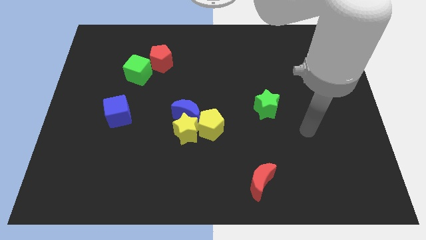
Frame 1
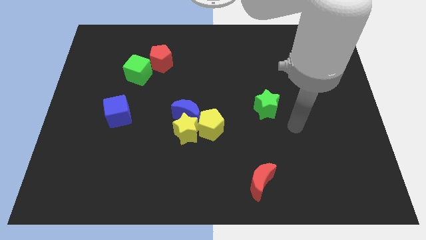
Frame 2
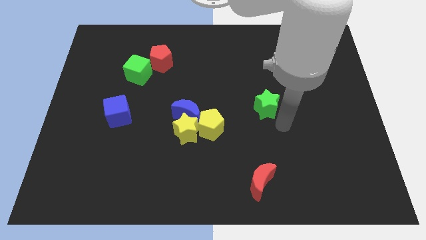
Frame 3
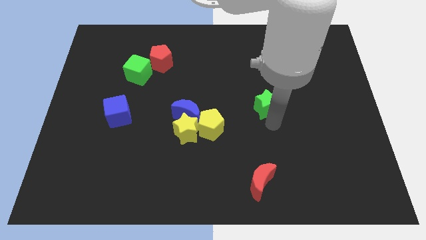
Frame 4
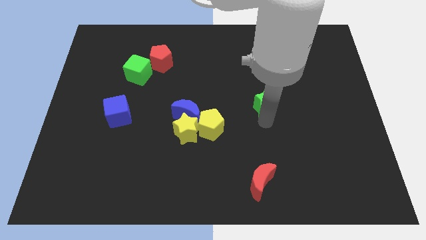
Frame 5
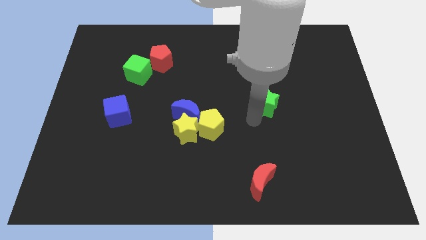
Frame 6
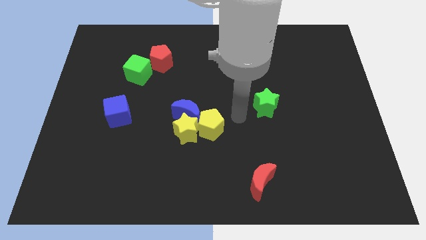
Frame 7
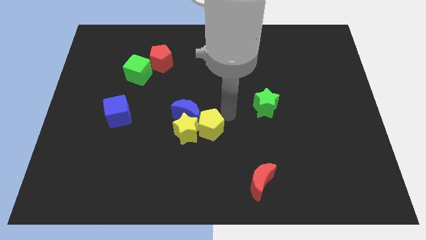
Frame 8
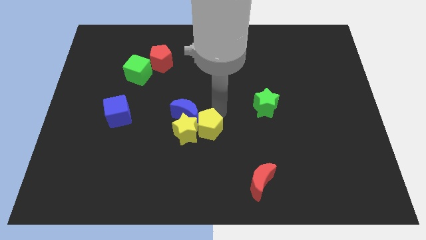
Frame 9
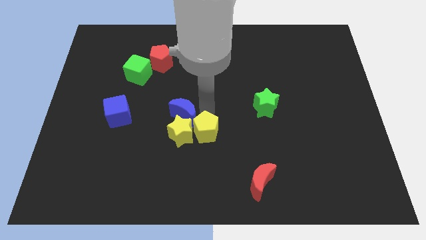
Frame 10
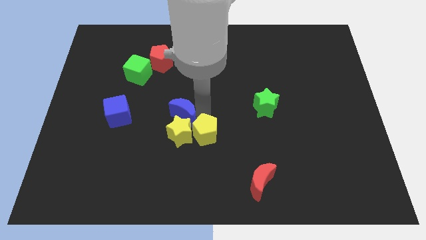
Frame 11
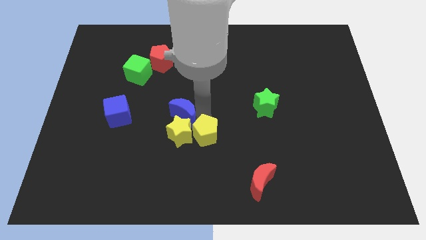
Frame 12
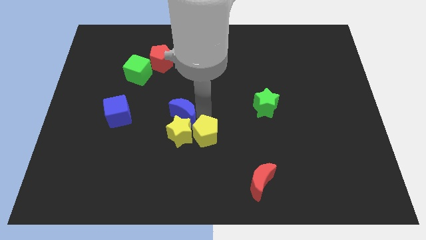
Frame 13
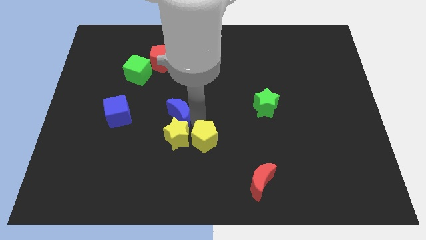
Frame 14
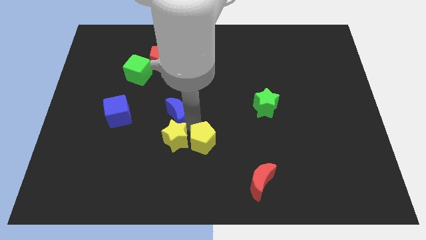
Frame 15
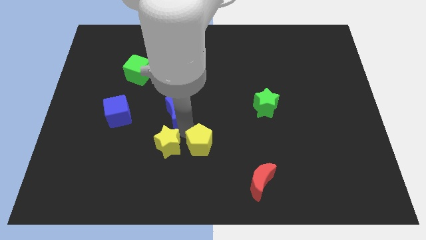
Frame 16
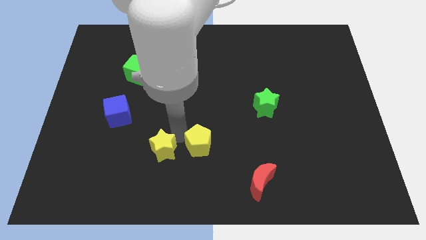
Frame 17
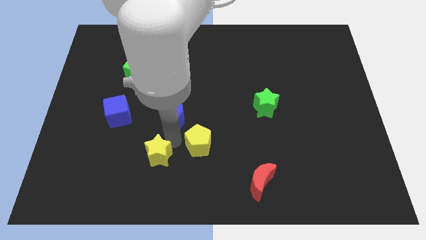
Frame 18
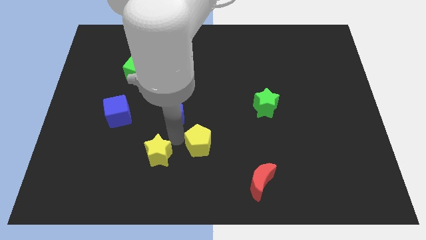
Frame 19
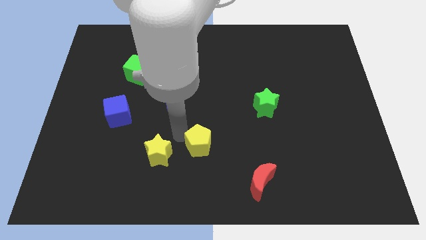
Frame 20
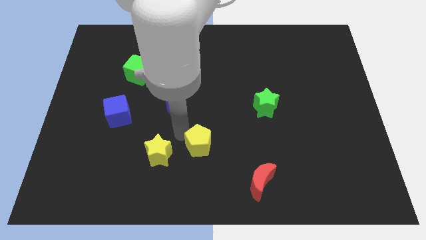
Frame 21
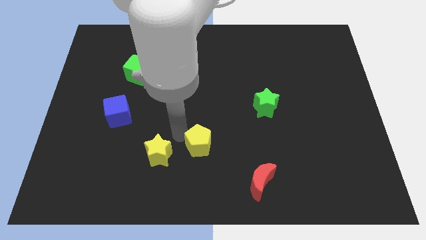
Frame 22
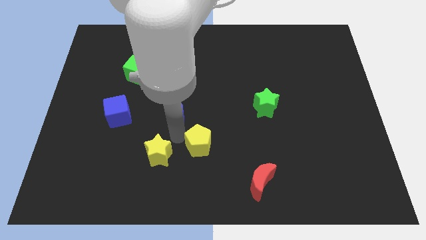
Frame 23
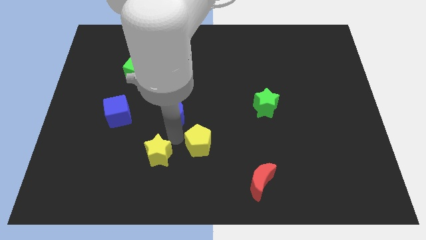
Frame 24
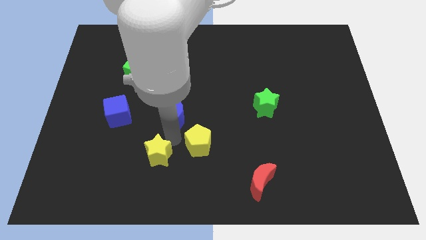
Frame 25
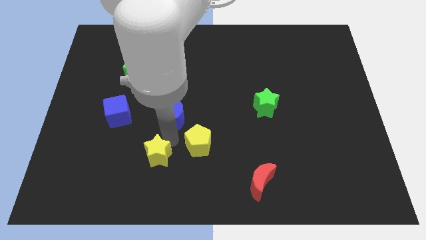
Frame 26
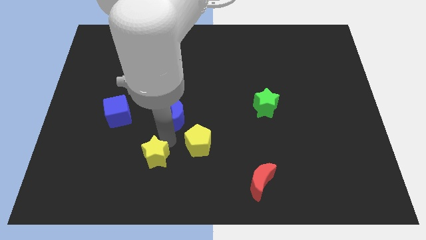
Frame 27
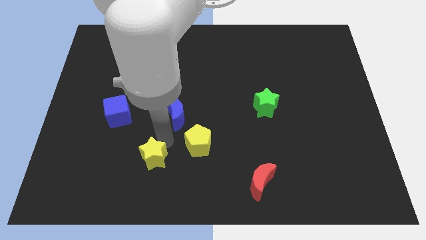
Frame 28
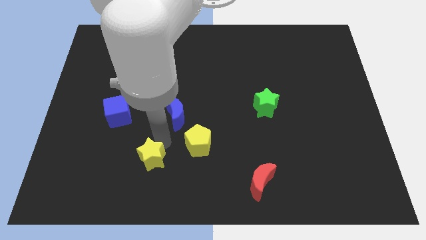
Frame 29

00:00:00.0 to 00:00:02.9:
pull the yellow star apart from the blue moon and yellow pentagon

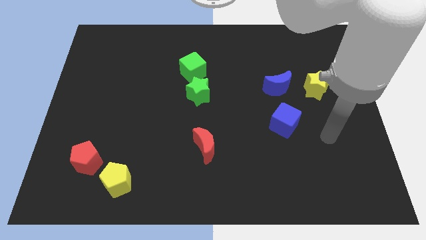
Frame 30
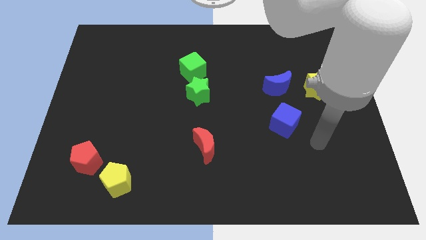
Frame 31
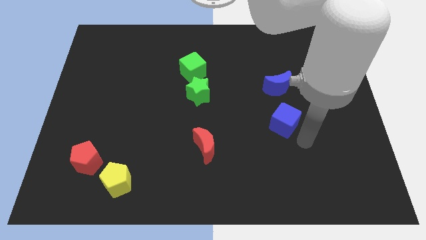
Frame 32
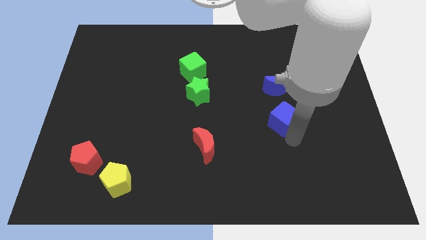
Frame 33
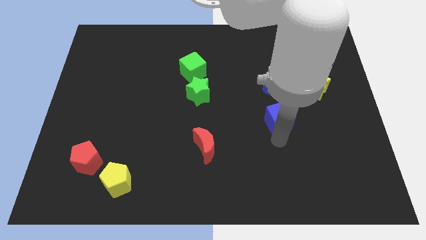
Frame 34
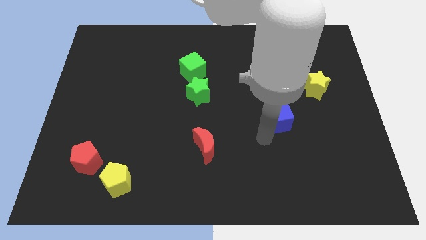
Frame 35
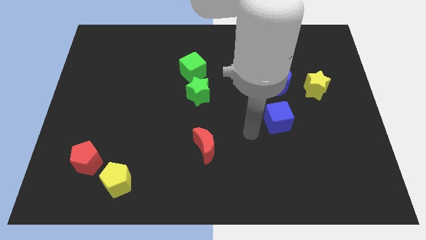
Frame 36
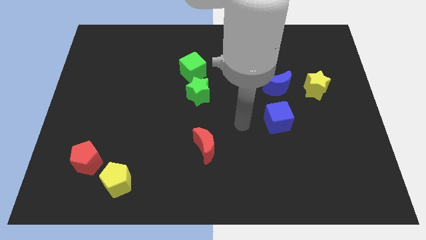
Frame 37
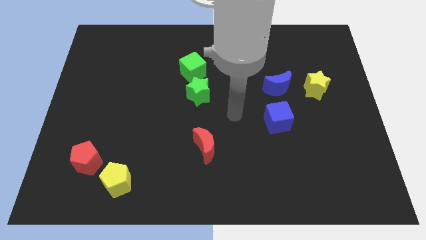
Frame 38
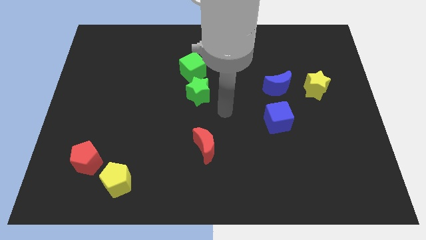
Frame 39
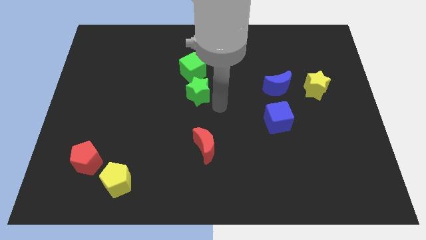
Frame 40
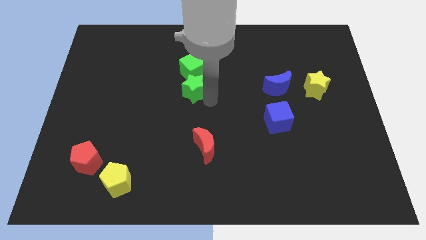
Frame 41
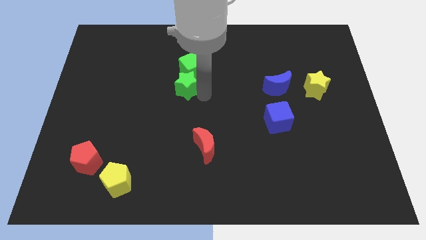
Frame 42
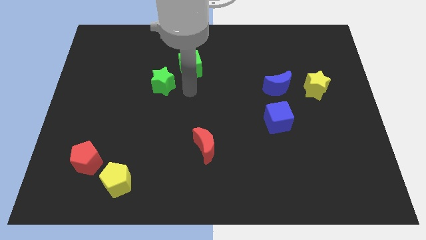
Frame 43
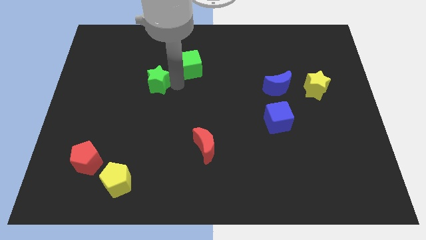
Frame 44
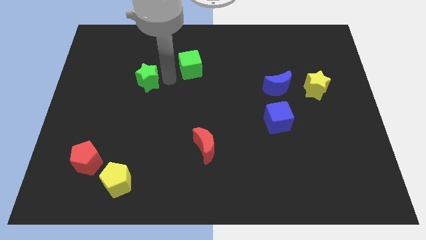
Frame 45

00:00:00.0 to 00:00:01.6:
pull the green cube apart from the green star

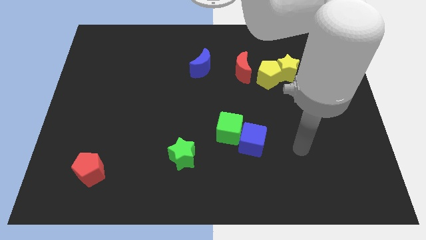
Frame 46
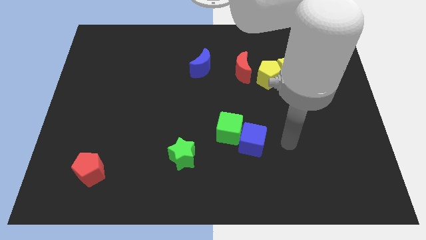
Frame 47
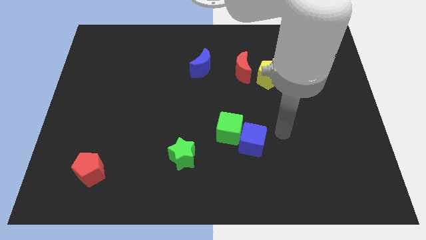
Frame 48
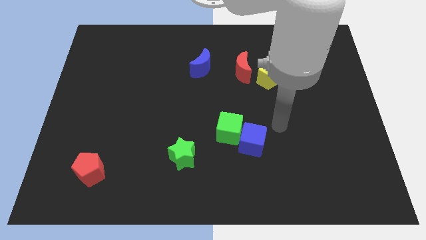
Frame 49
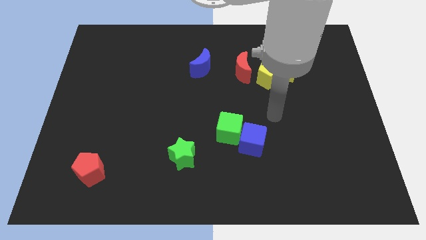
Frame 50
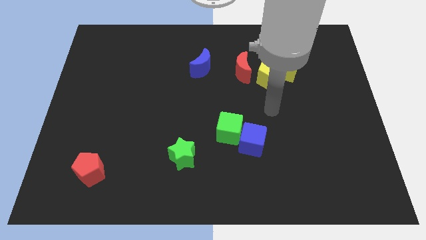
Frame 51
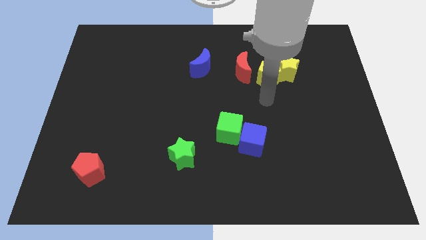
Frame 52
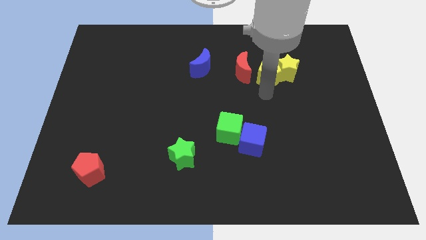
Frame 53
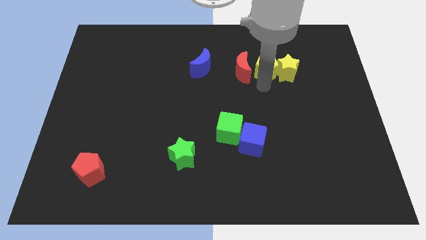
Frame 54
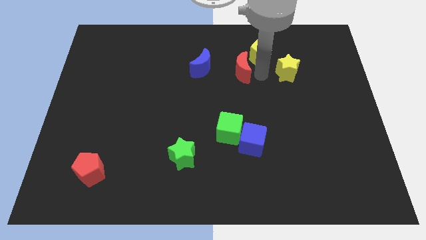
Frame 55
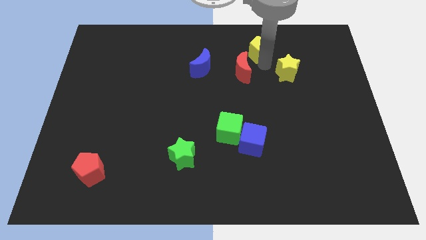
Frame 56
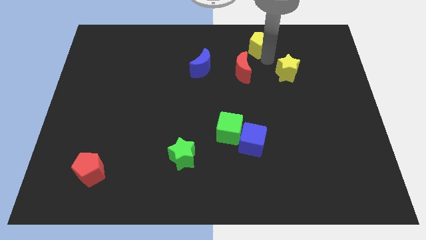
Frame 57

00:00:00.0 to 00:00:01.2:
pull the yellow star apart from the yellow pentagon

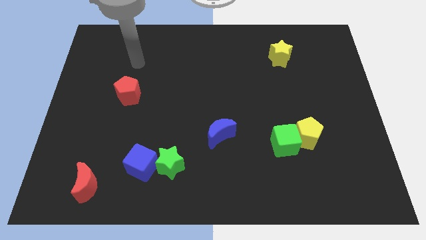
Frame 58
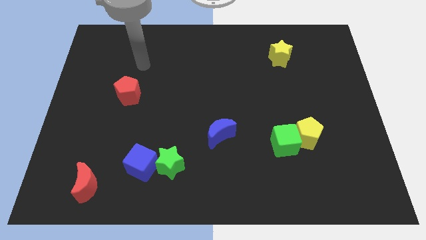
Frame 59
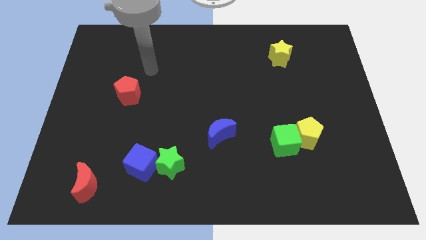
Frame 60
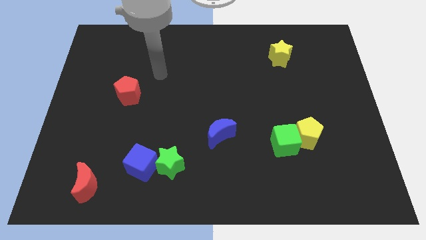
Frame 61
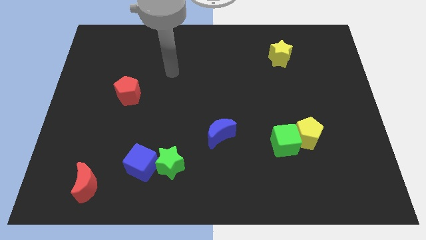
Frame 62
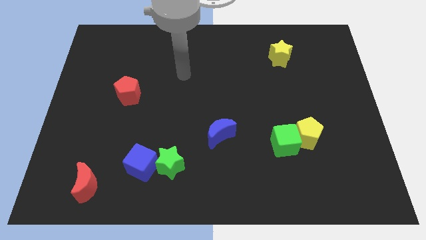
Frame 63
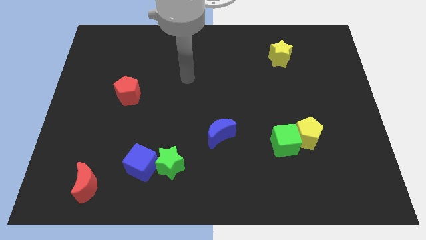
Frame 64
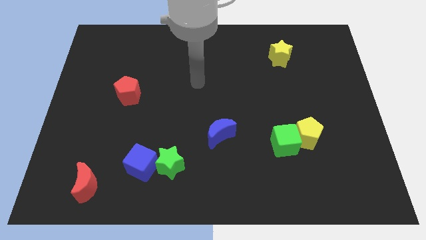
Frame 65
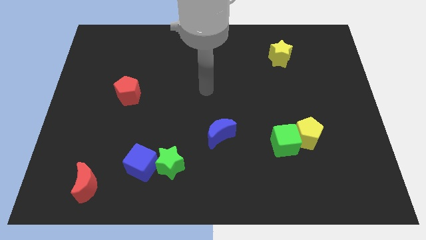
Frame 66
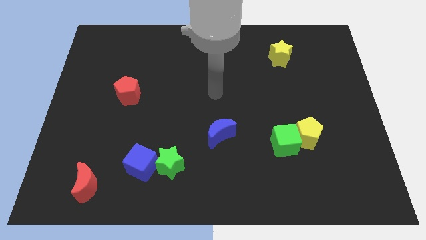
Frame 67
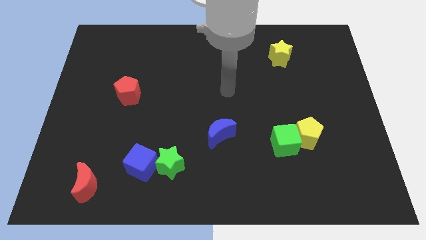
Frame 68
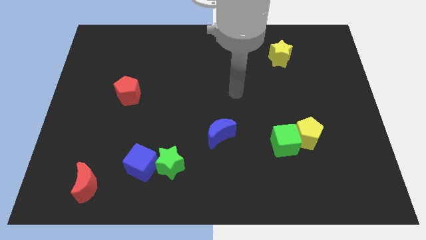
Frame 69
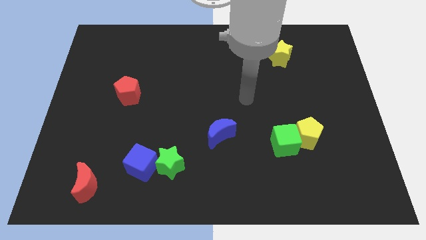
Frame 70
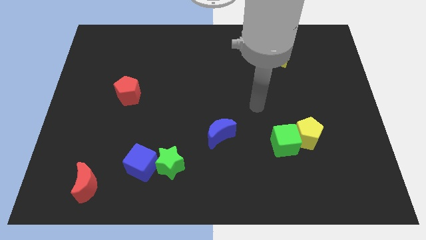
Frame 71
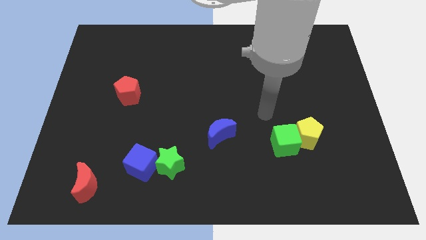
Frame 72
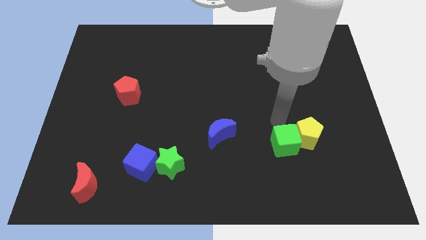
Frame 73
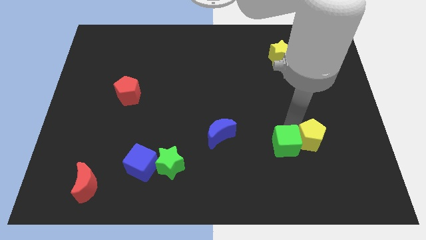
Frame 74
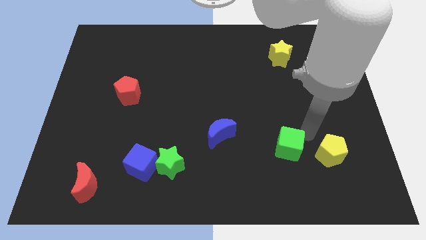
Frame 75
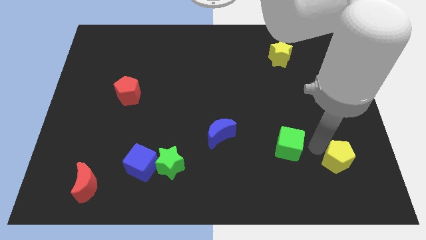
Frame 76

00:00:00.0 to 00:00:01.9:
separate the green cube from the yellow pentagon

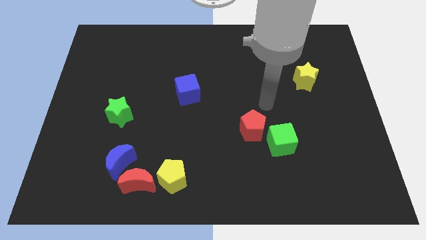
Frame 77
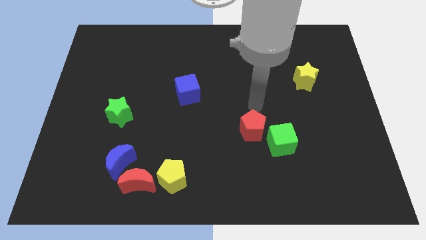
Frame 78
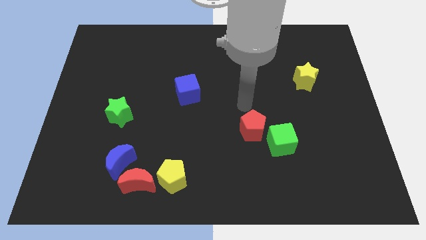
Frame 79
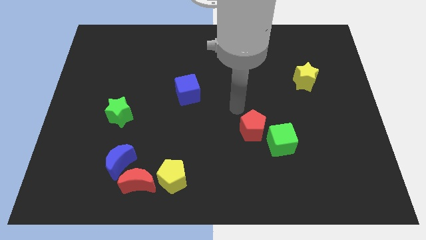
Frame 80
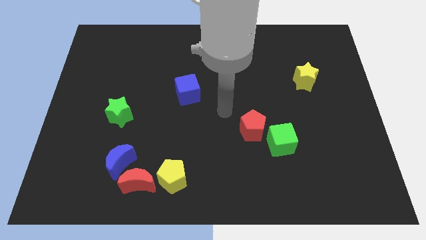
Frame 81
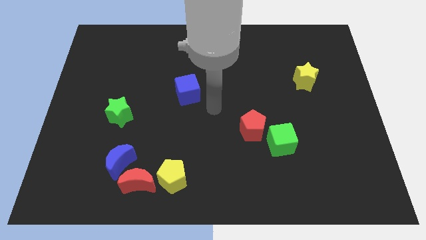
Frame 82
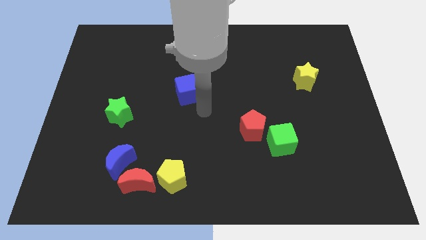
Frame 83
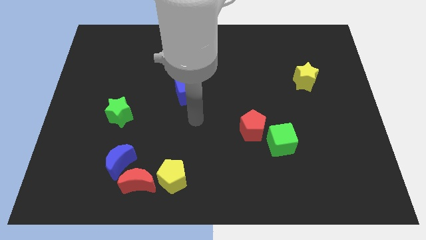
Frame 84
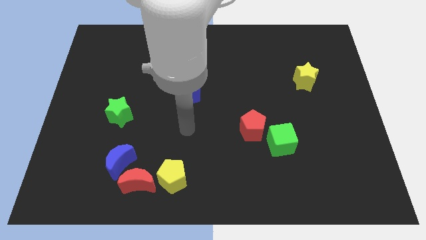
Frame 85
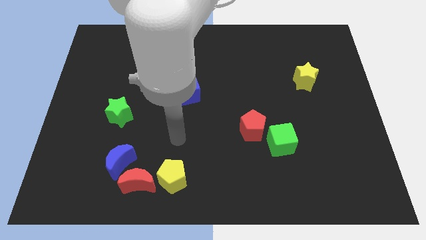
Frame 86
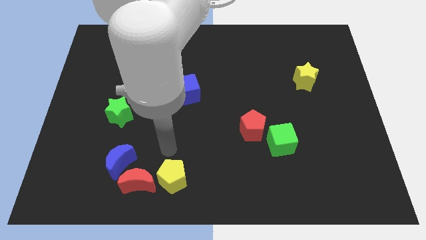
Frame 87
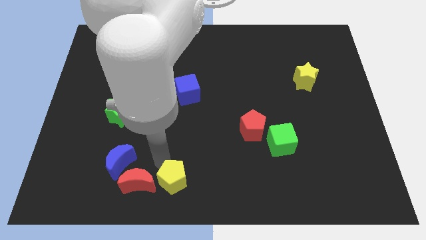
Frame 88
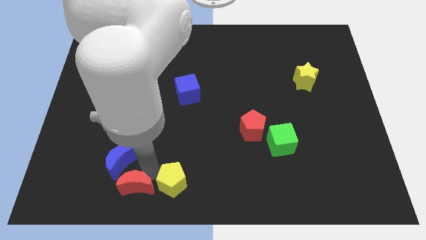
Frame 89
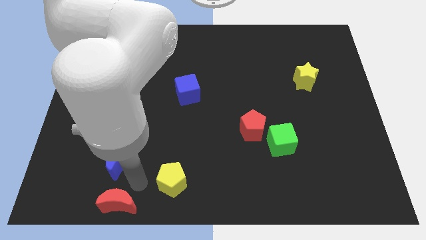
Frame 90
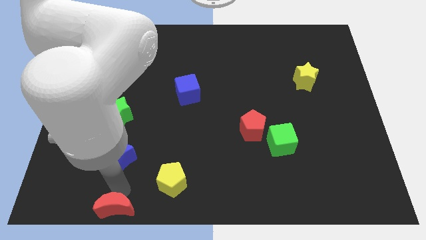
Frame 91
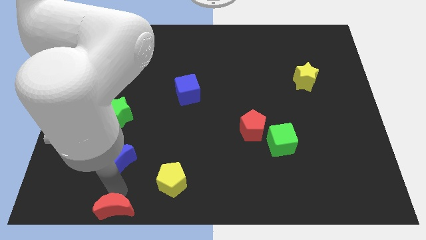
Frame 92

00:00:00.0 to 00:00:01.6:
separate the blue moon from the red moon

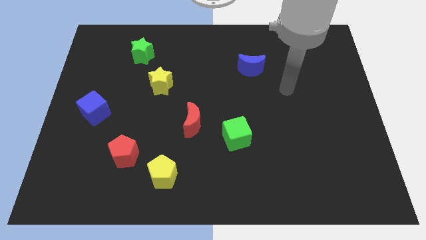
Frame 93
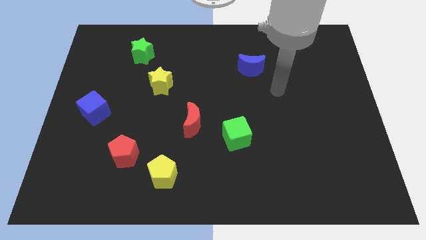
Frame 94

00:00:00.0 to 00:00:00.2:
move the red pentagon away from the yellow pentagon
